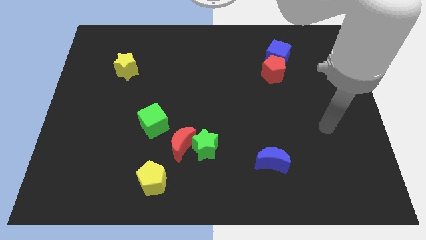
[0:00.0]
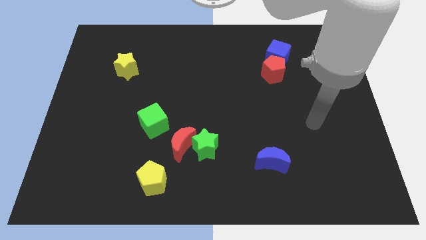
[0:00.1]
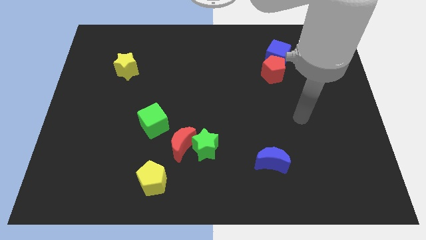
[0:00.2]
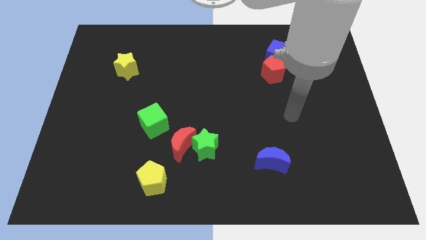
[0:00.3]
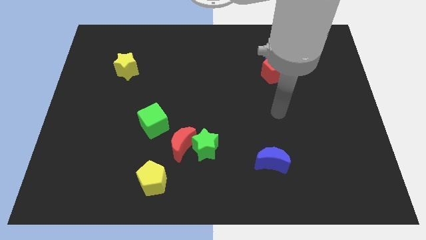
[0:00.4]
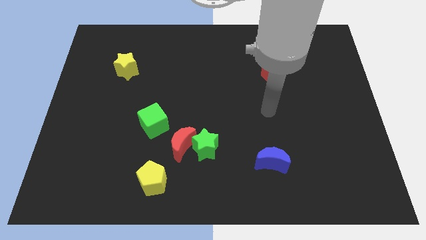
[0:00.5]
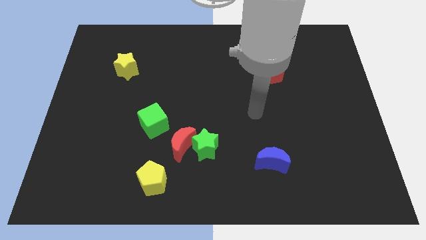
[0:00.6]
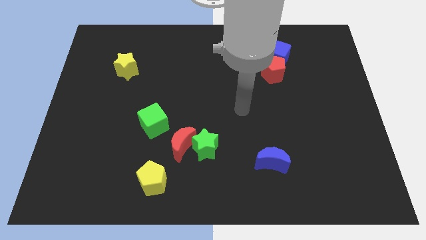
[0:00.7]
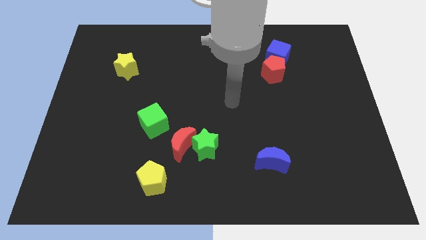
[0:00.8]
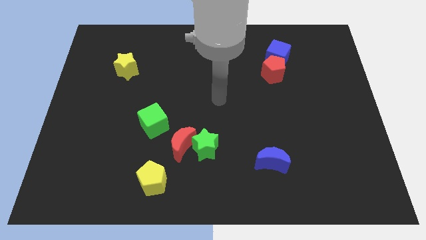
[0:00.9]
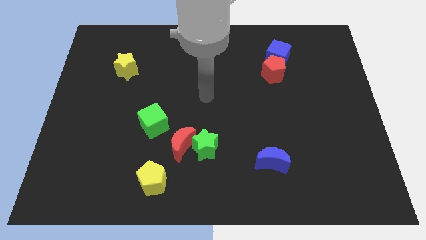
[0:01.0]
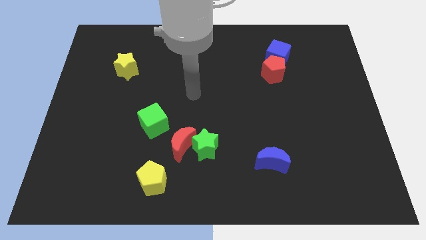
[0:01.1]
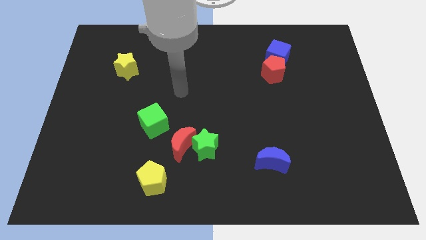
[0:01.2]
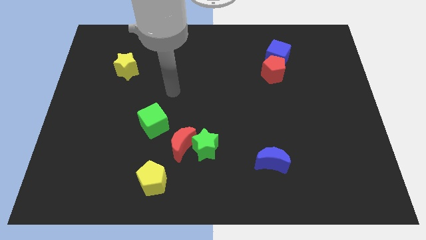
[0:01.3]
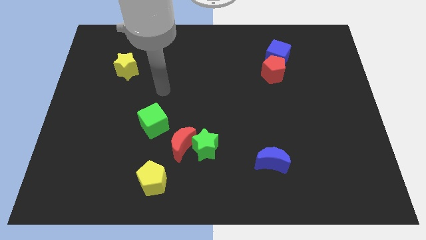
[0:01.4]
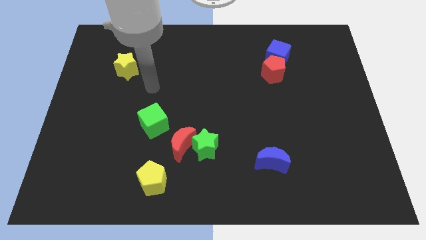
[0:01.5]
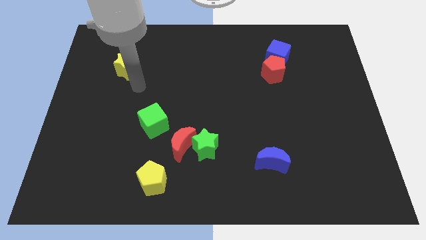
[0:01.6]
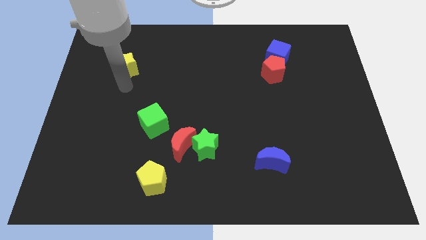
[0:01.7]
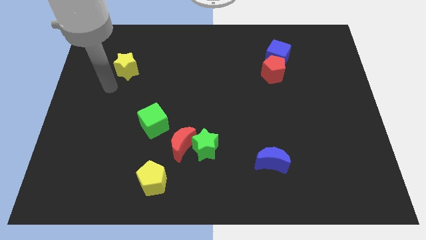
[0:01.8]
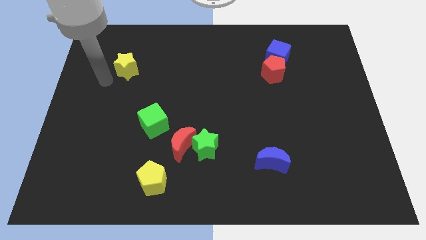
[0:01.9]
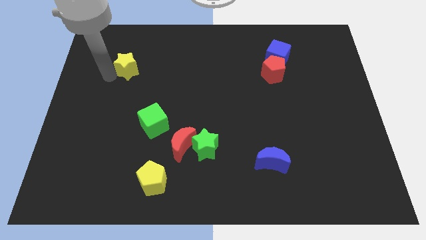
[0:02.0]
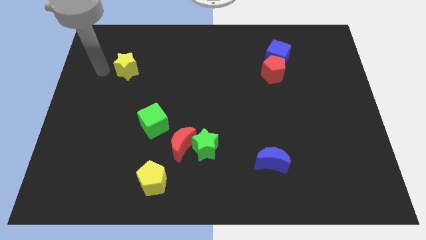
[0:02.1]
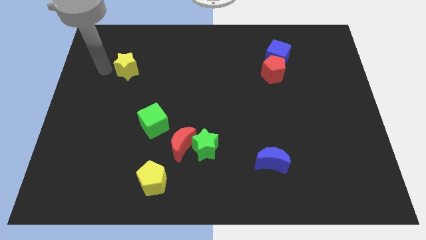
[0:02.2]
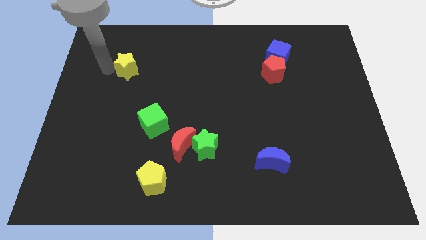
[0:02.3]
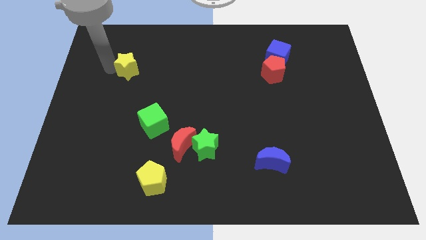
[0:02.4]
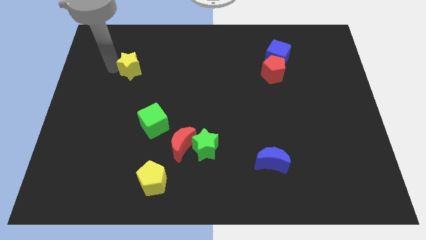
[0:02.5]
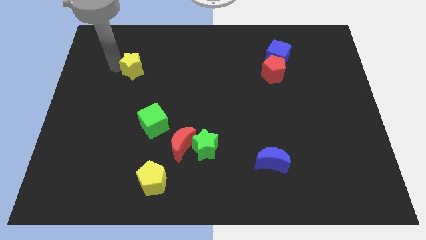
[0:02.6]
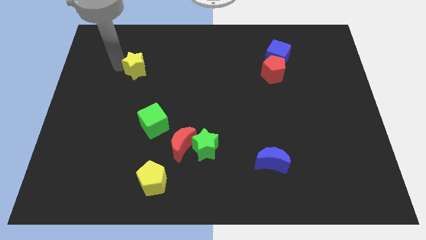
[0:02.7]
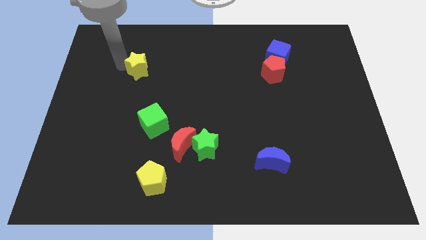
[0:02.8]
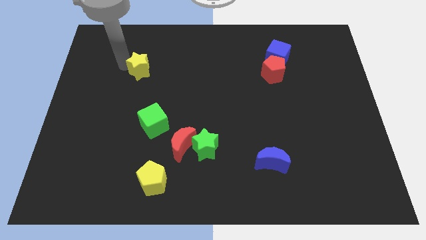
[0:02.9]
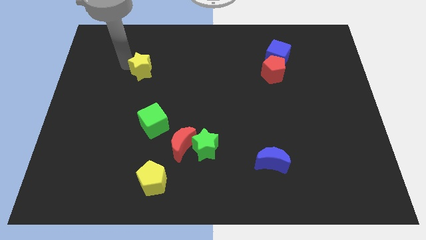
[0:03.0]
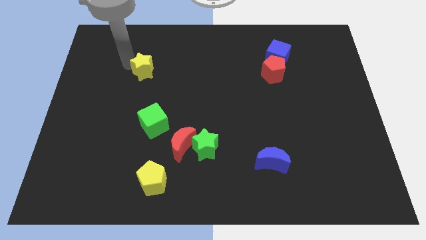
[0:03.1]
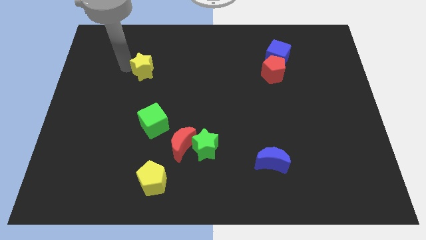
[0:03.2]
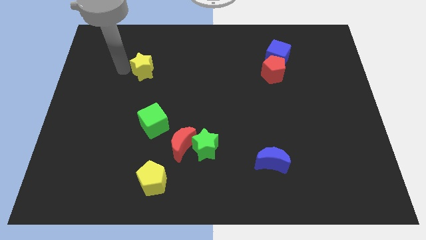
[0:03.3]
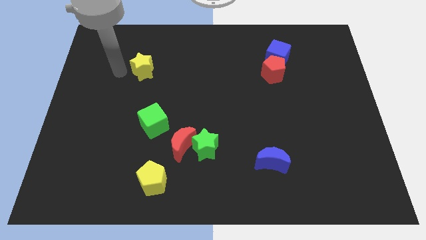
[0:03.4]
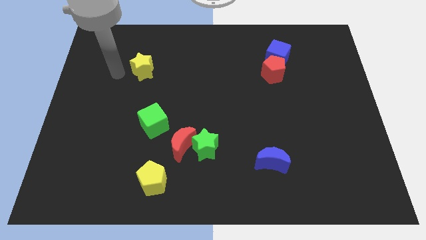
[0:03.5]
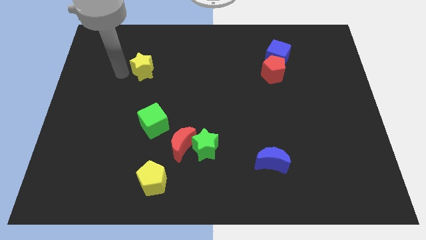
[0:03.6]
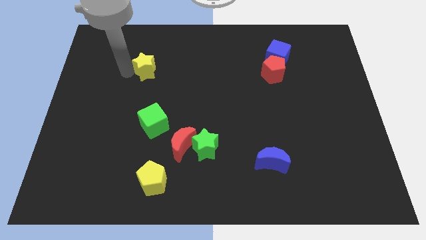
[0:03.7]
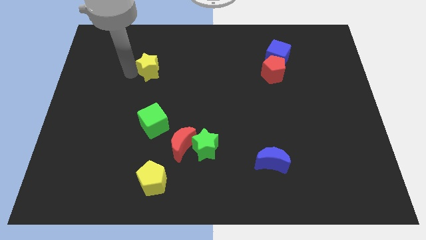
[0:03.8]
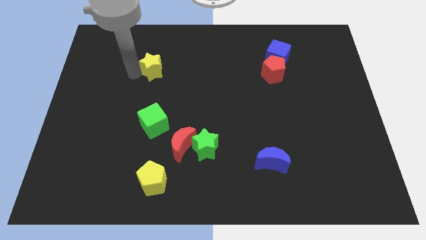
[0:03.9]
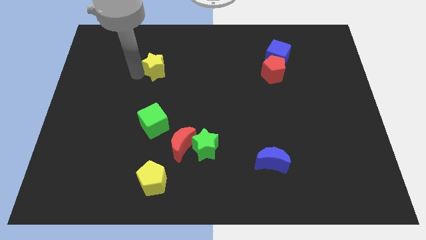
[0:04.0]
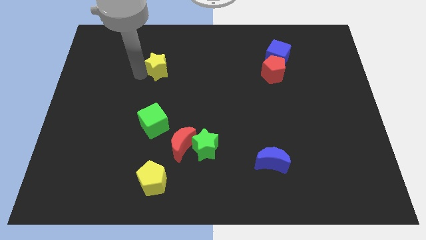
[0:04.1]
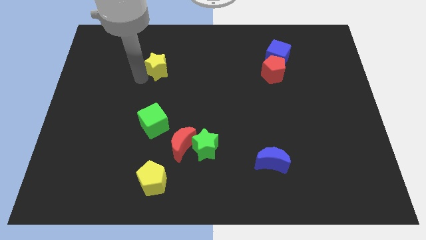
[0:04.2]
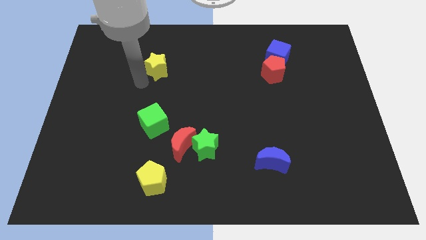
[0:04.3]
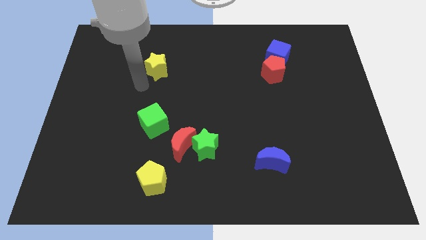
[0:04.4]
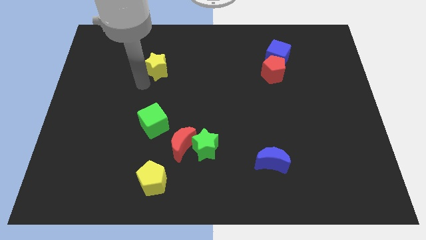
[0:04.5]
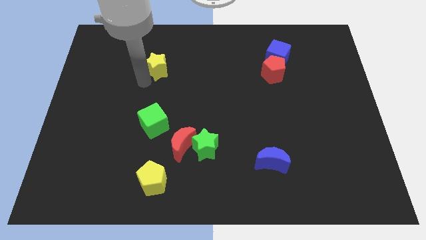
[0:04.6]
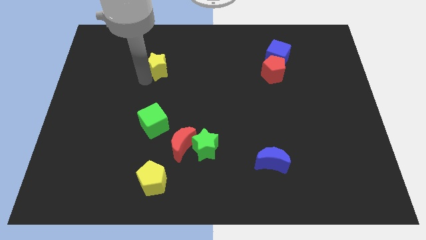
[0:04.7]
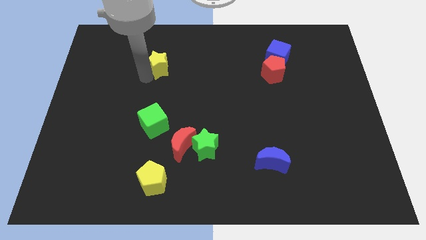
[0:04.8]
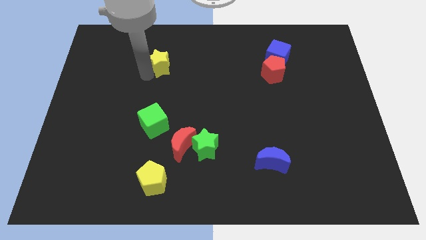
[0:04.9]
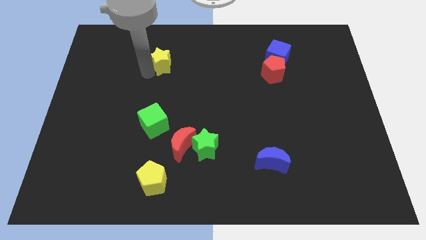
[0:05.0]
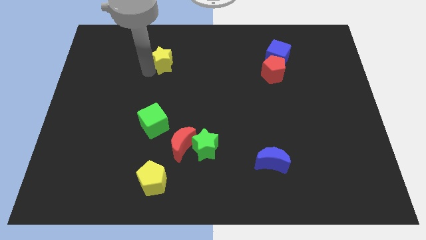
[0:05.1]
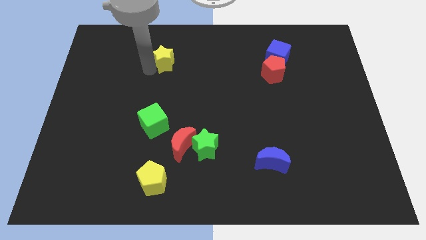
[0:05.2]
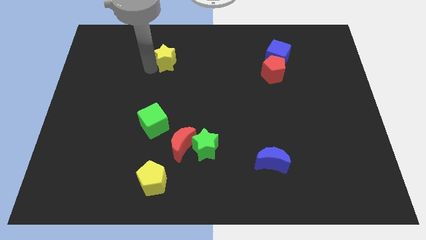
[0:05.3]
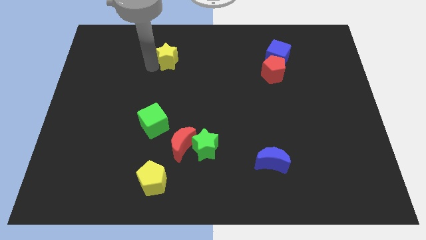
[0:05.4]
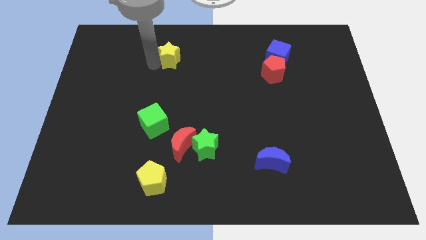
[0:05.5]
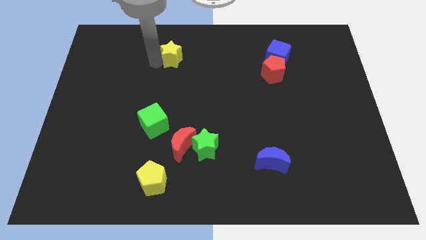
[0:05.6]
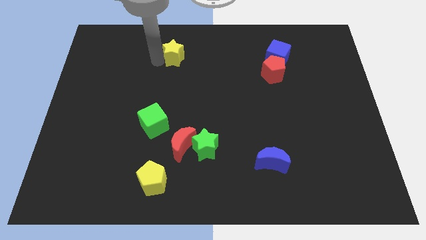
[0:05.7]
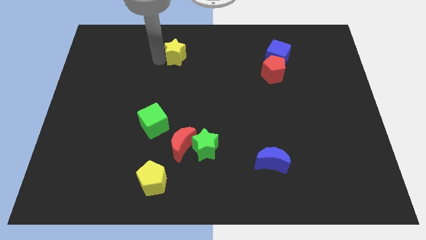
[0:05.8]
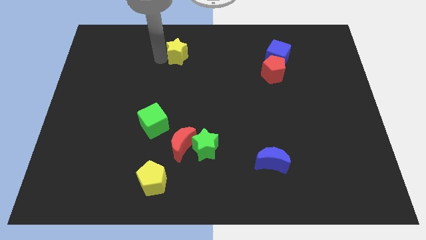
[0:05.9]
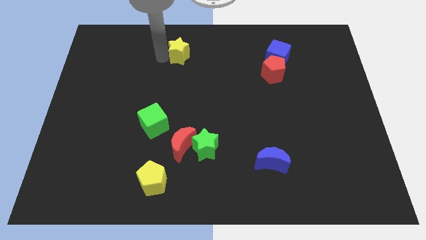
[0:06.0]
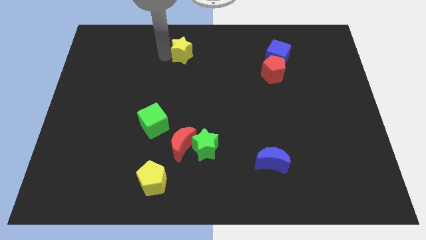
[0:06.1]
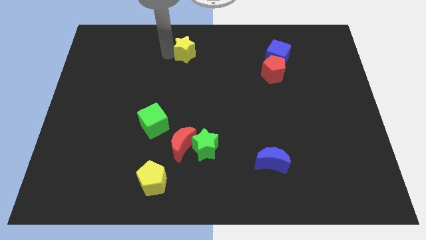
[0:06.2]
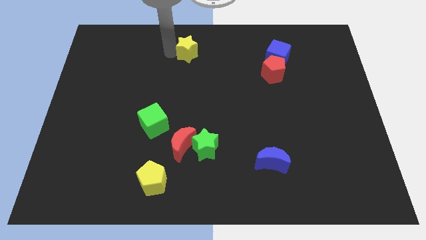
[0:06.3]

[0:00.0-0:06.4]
push the yellow star to the top
